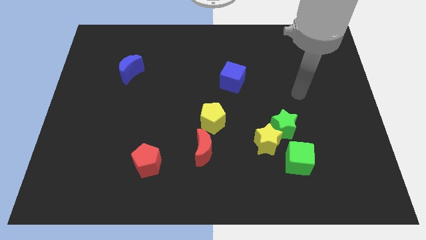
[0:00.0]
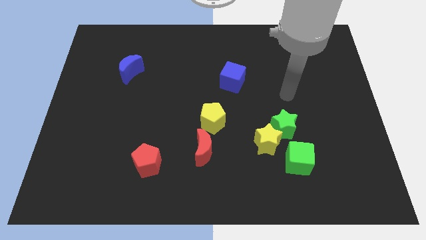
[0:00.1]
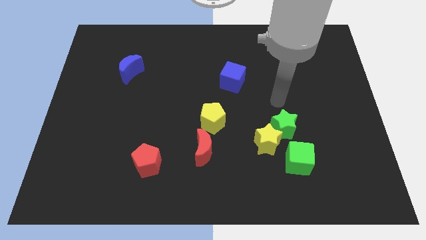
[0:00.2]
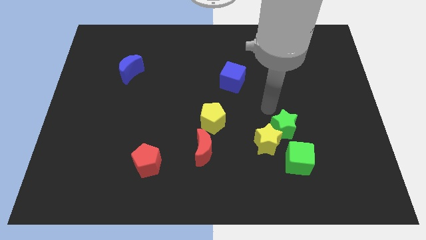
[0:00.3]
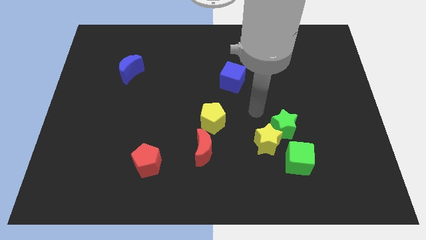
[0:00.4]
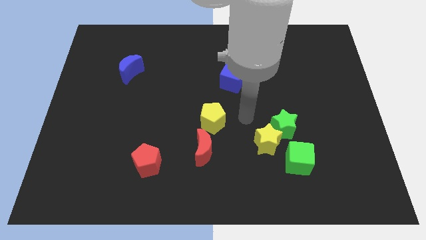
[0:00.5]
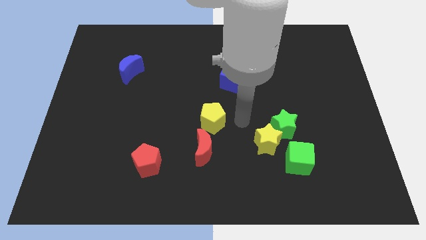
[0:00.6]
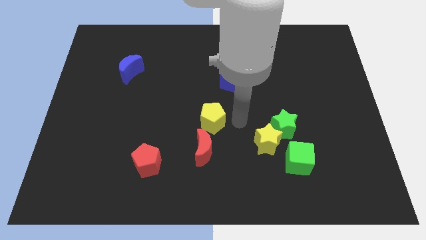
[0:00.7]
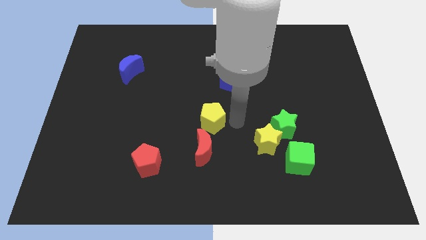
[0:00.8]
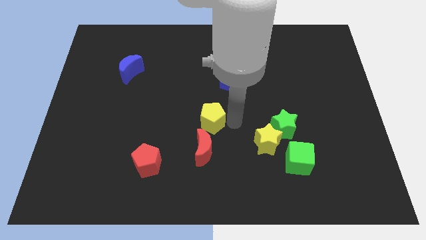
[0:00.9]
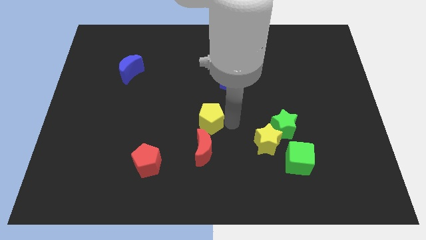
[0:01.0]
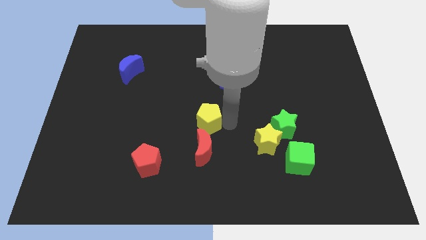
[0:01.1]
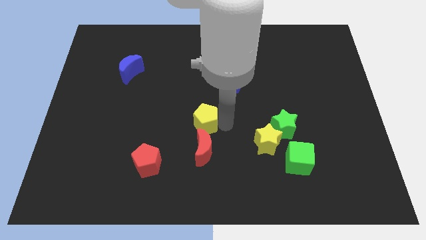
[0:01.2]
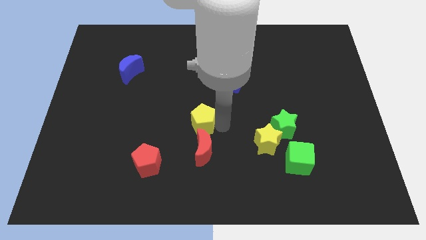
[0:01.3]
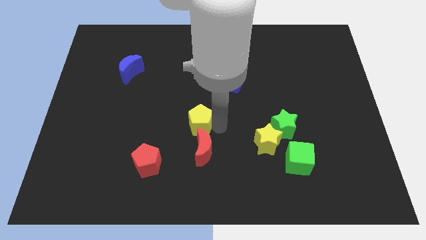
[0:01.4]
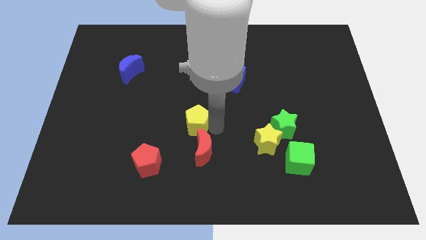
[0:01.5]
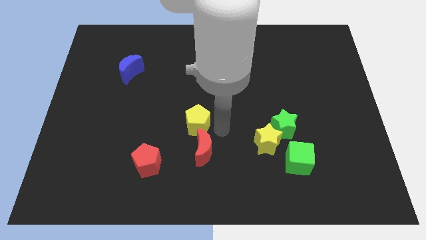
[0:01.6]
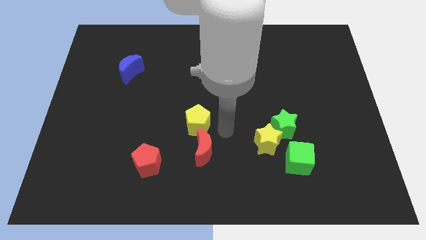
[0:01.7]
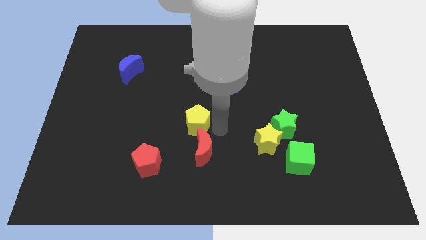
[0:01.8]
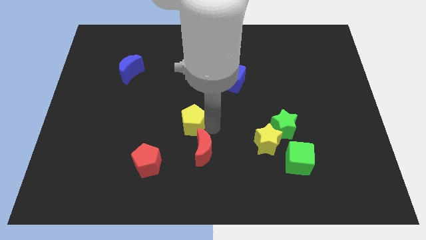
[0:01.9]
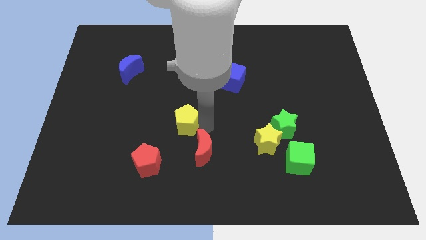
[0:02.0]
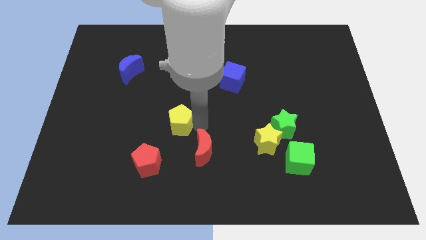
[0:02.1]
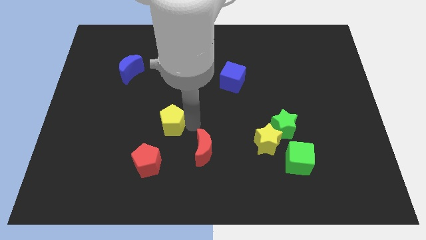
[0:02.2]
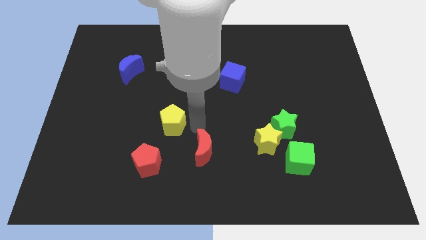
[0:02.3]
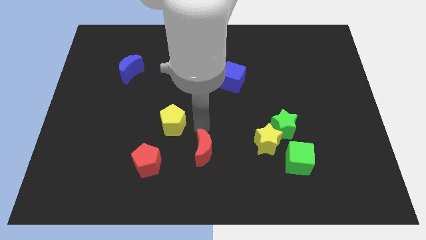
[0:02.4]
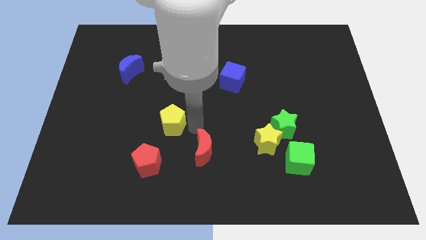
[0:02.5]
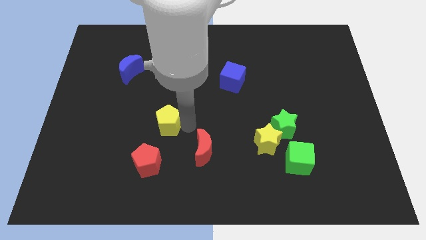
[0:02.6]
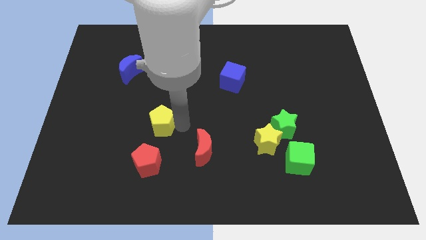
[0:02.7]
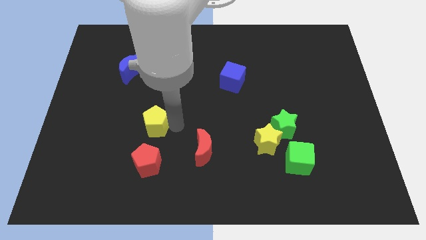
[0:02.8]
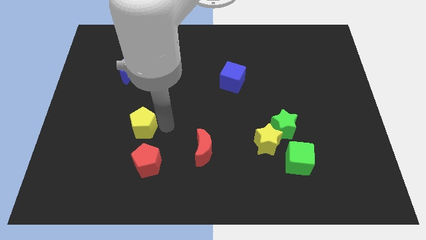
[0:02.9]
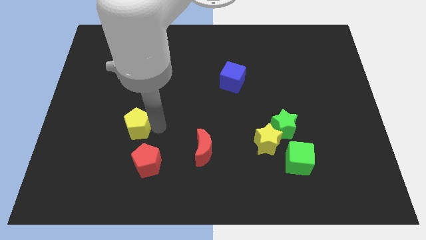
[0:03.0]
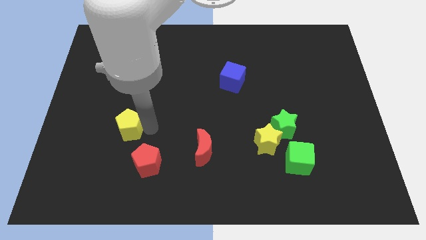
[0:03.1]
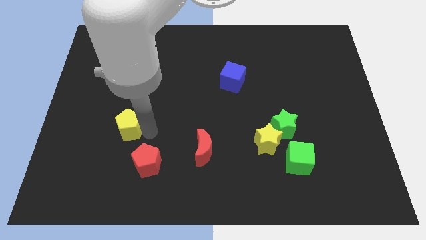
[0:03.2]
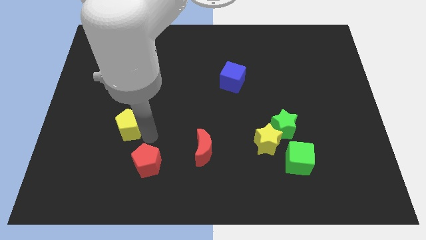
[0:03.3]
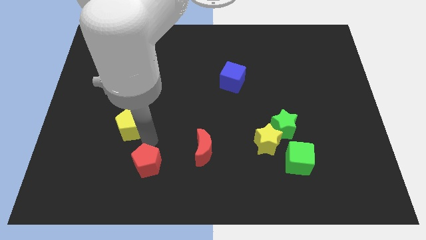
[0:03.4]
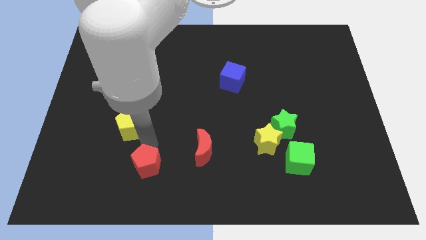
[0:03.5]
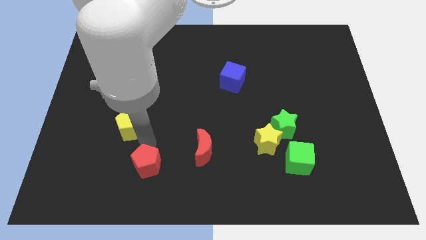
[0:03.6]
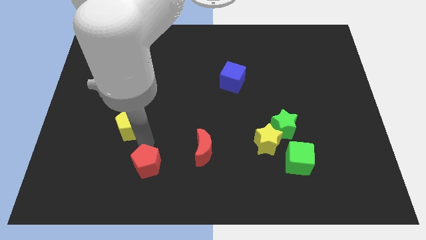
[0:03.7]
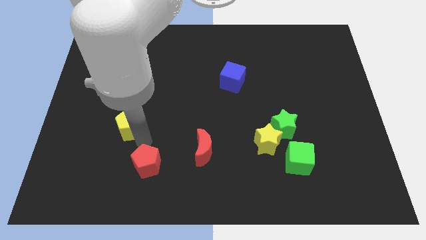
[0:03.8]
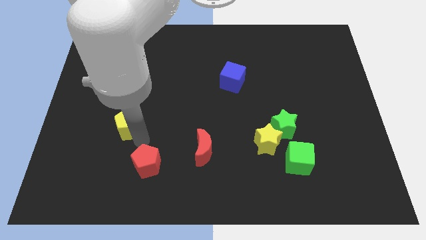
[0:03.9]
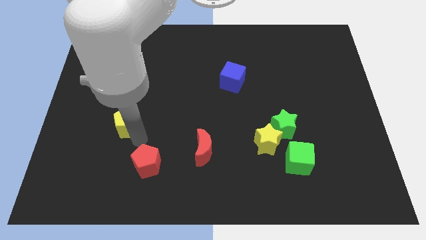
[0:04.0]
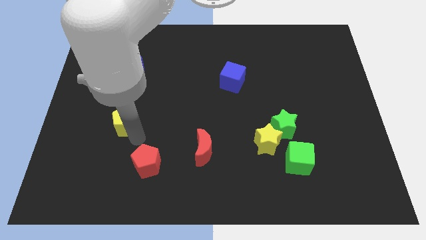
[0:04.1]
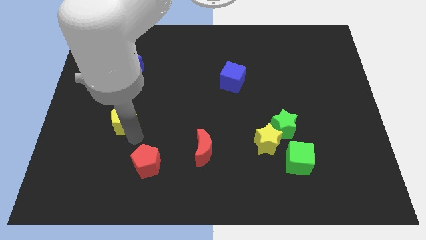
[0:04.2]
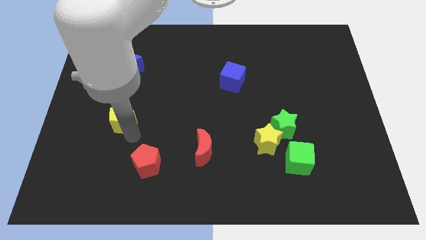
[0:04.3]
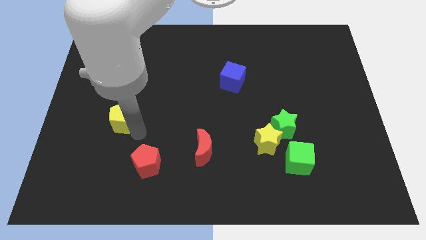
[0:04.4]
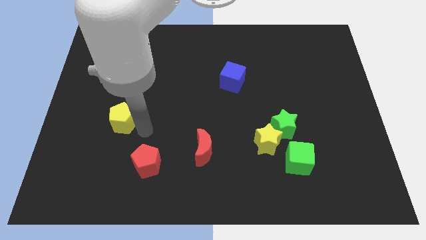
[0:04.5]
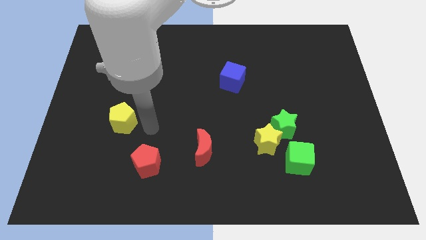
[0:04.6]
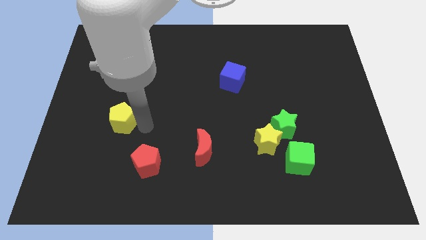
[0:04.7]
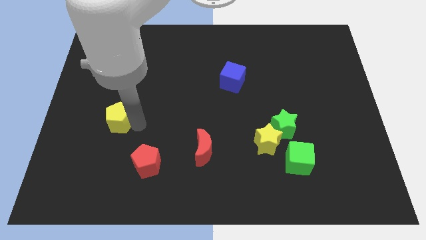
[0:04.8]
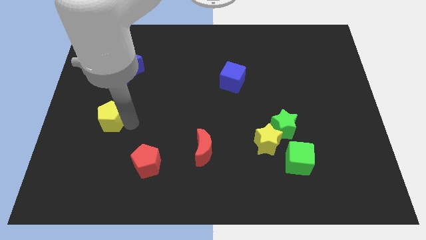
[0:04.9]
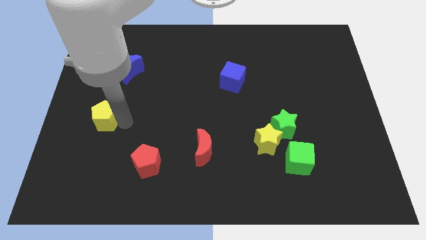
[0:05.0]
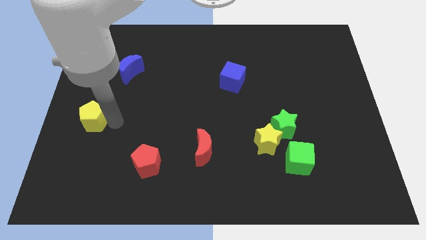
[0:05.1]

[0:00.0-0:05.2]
slide the yellow pentagon to the left side of the board
